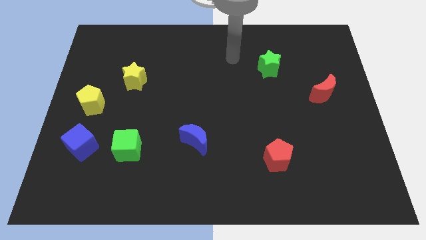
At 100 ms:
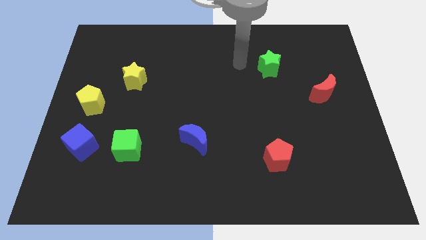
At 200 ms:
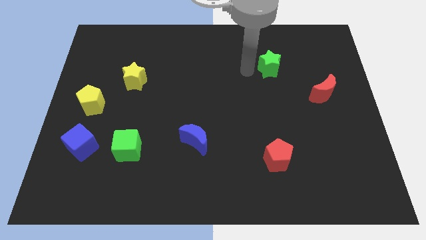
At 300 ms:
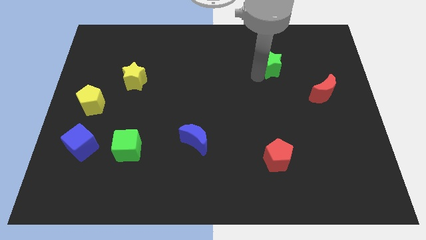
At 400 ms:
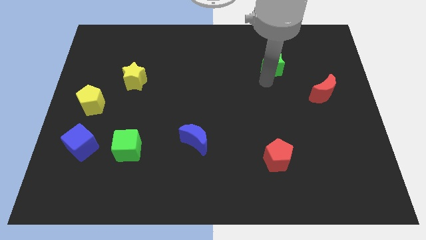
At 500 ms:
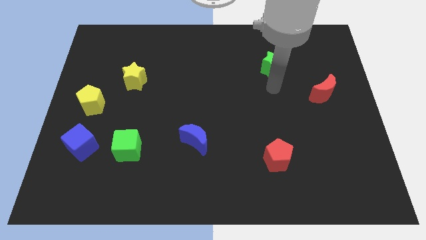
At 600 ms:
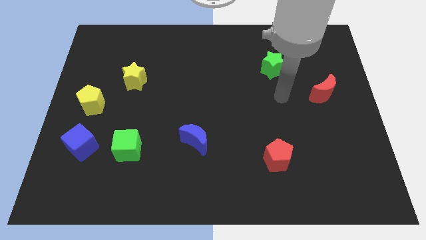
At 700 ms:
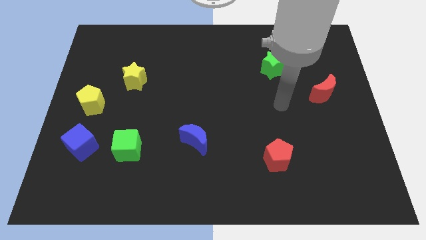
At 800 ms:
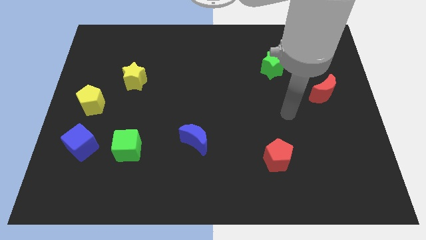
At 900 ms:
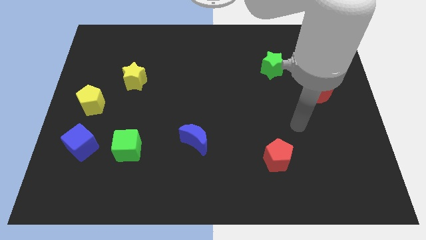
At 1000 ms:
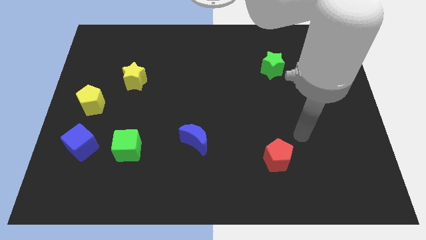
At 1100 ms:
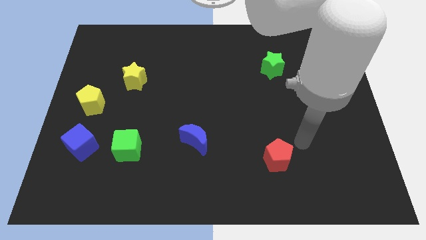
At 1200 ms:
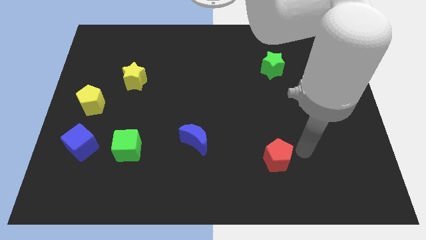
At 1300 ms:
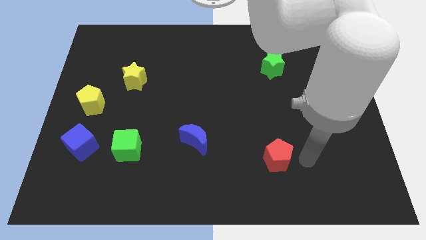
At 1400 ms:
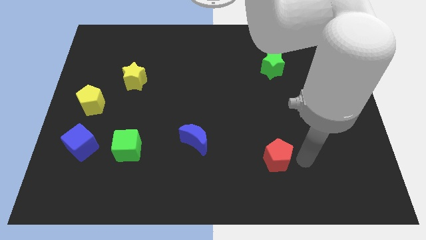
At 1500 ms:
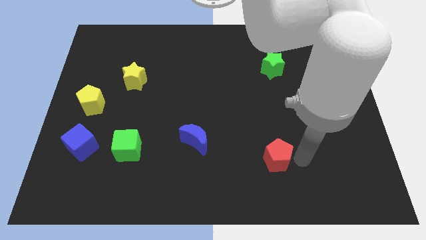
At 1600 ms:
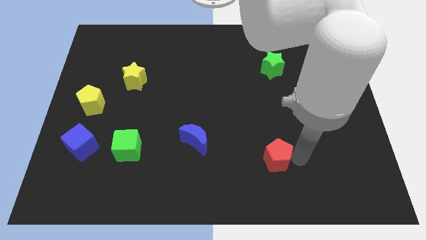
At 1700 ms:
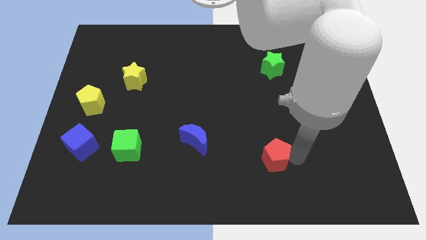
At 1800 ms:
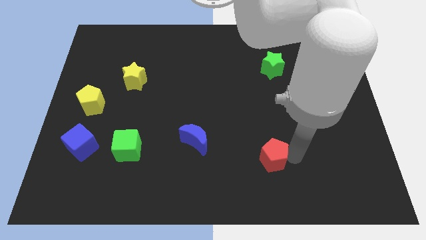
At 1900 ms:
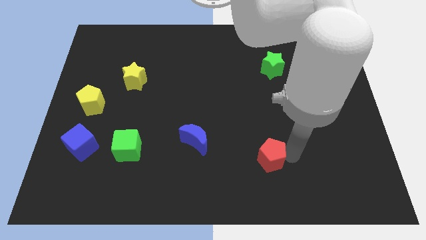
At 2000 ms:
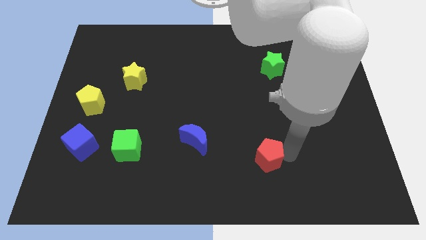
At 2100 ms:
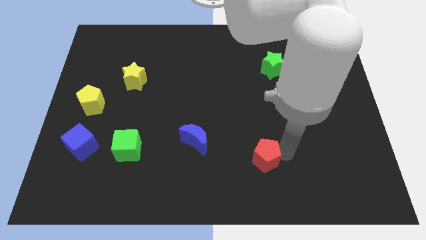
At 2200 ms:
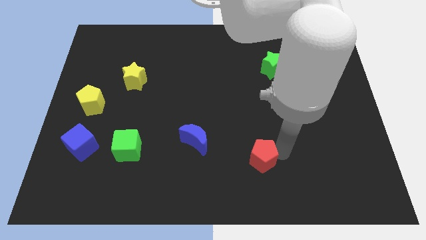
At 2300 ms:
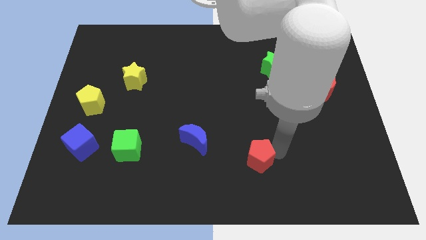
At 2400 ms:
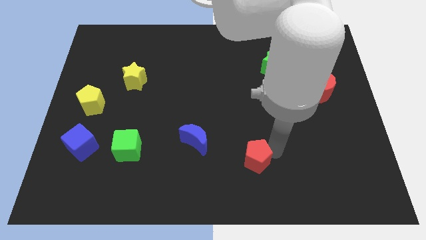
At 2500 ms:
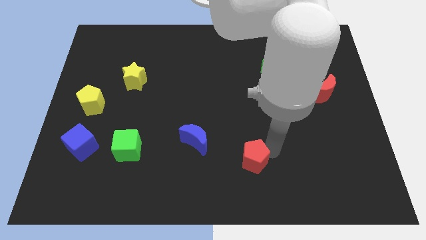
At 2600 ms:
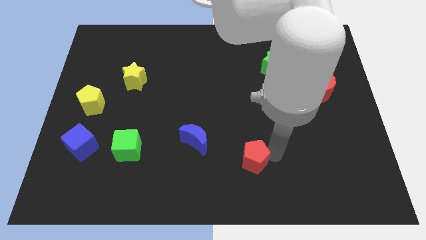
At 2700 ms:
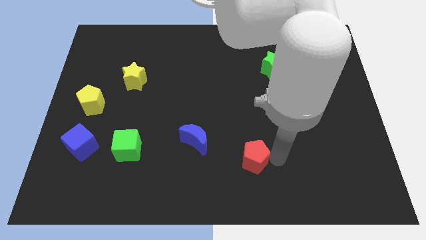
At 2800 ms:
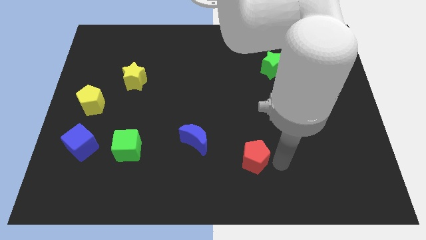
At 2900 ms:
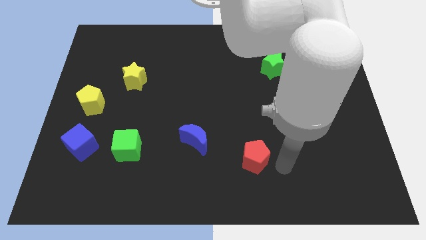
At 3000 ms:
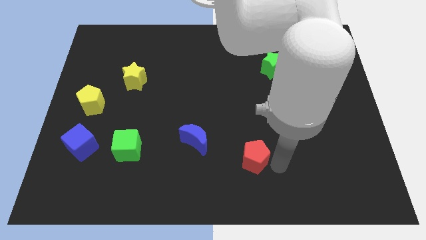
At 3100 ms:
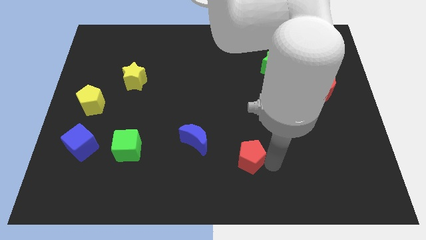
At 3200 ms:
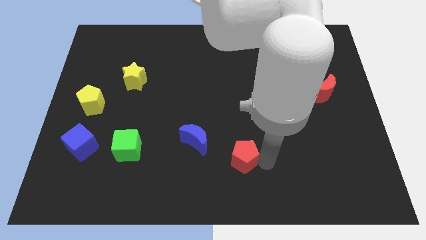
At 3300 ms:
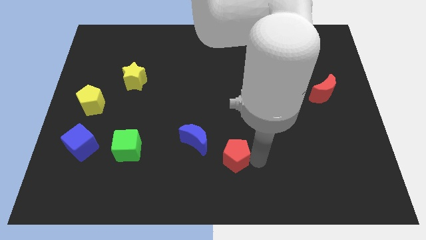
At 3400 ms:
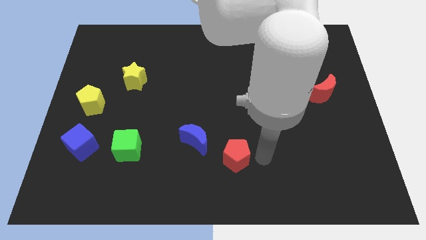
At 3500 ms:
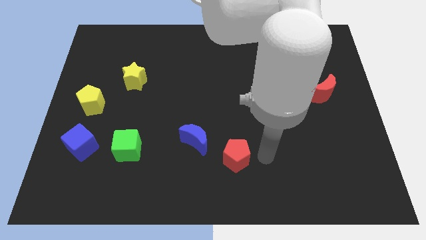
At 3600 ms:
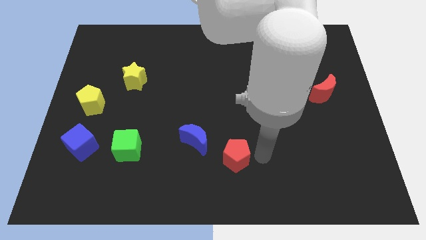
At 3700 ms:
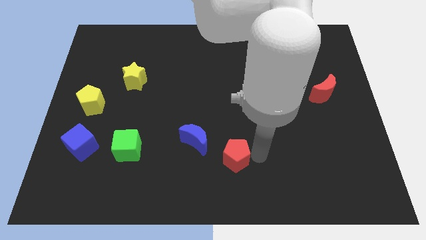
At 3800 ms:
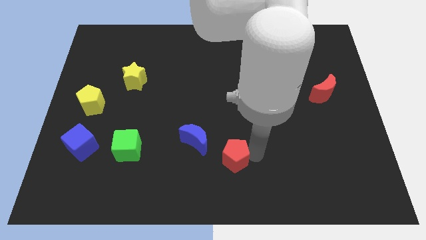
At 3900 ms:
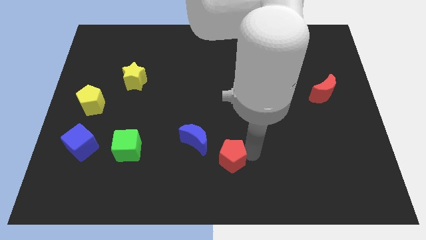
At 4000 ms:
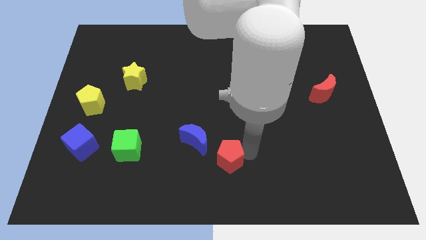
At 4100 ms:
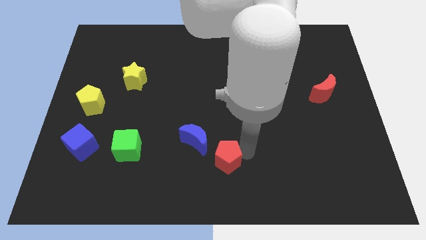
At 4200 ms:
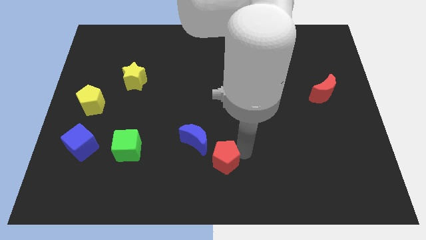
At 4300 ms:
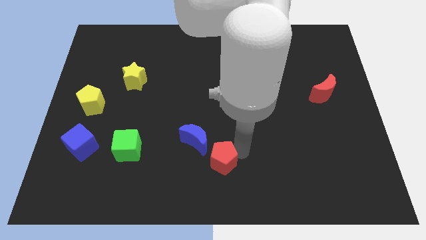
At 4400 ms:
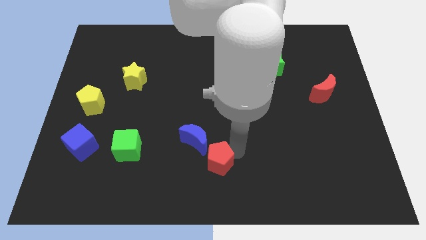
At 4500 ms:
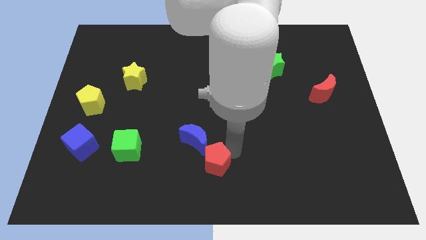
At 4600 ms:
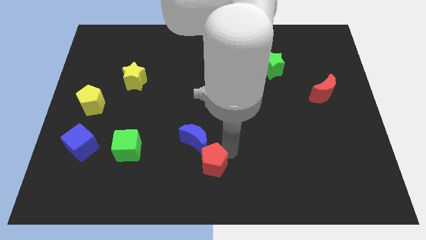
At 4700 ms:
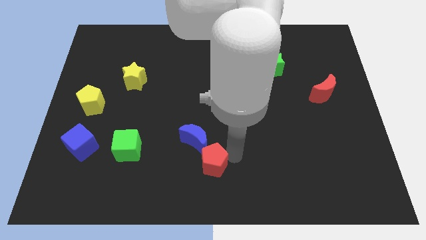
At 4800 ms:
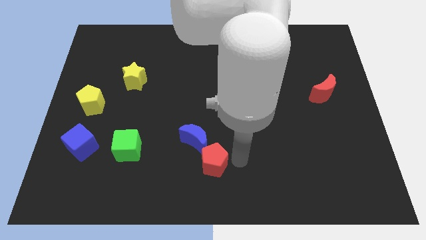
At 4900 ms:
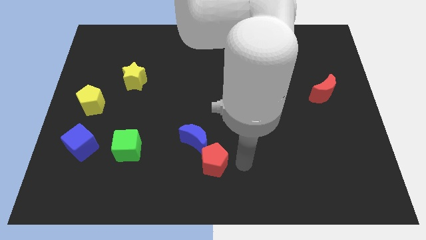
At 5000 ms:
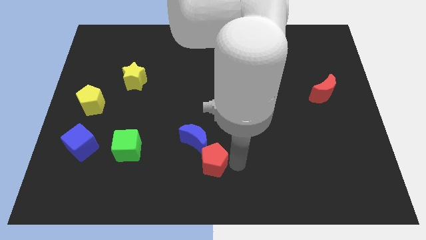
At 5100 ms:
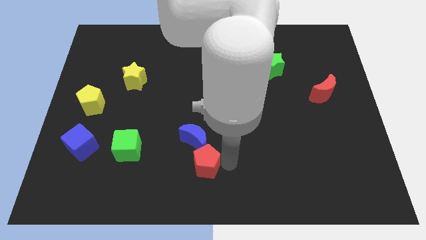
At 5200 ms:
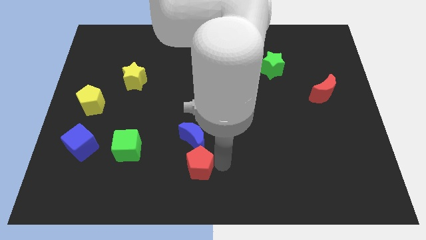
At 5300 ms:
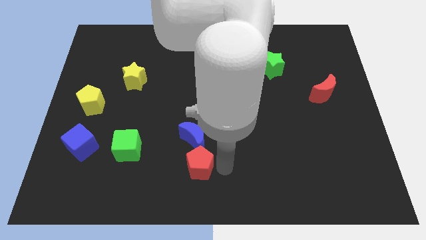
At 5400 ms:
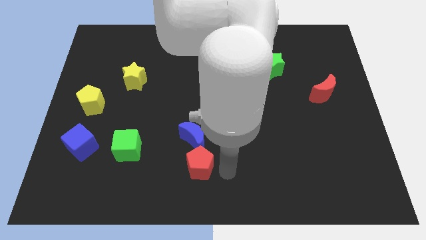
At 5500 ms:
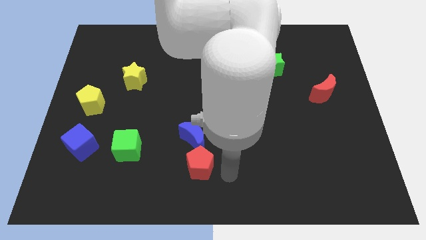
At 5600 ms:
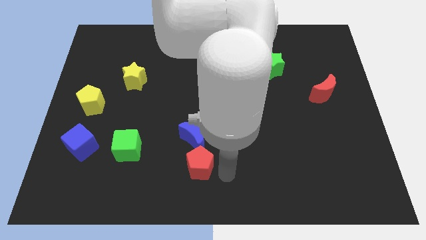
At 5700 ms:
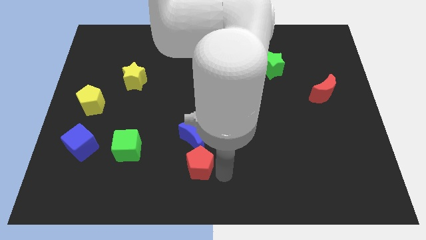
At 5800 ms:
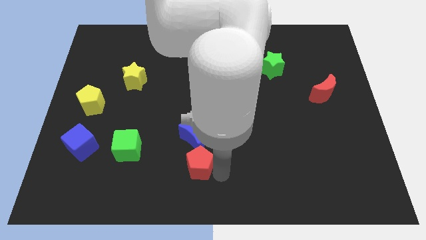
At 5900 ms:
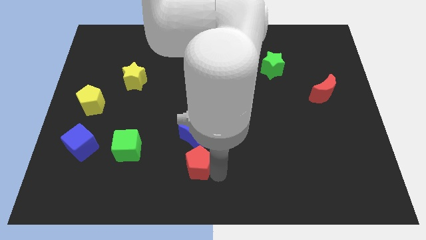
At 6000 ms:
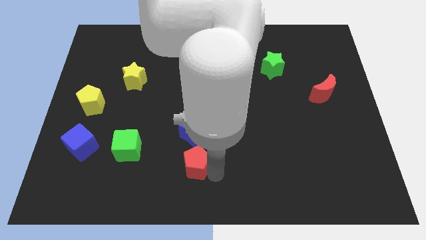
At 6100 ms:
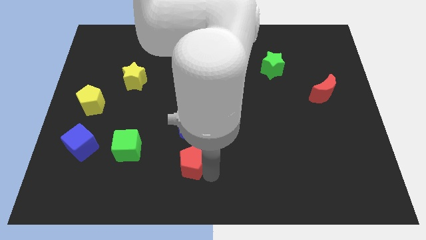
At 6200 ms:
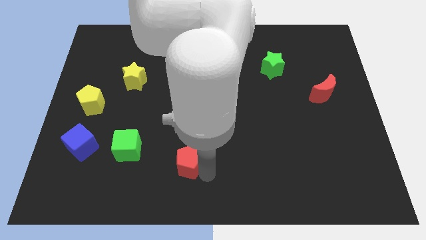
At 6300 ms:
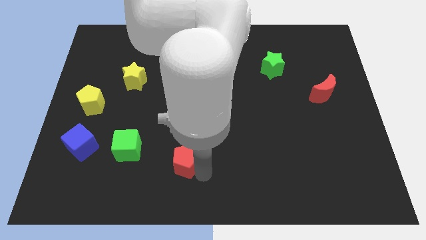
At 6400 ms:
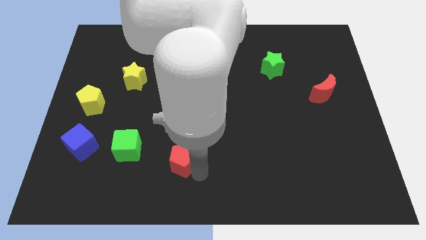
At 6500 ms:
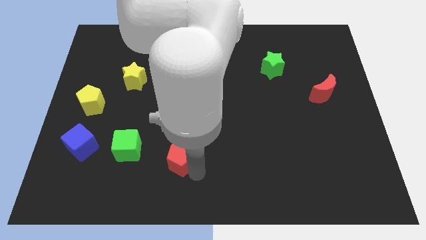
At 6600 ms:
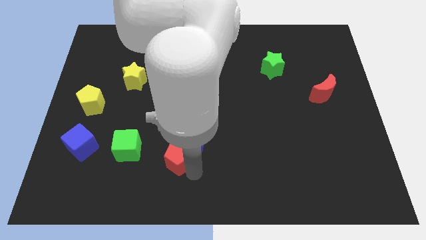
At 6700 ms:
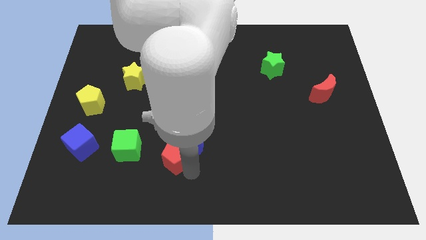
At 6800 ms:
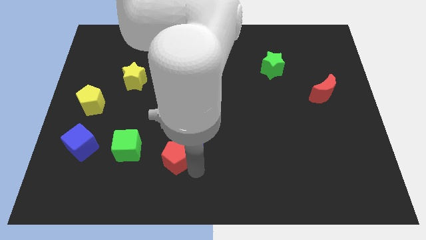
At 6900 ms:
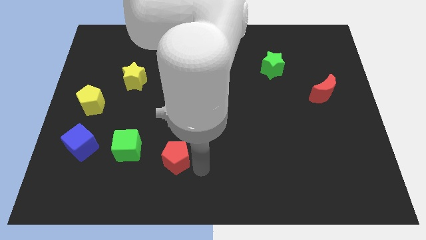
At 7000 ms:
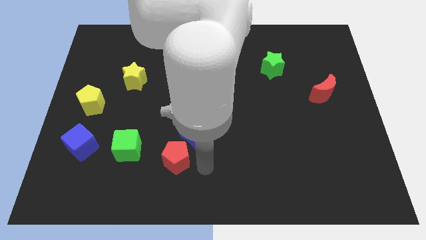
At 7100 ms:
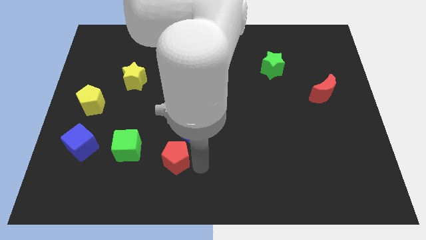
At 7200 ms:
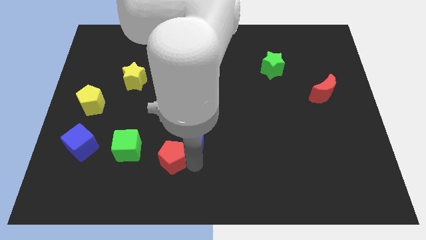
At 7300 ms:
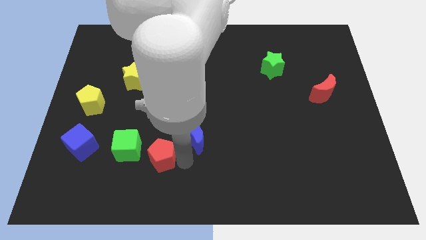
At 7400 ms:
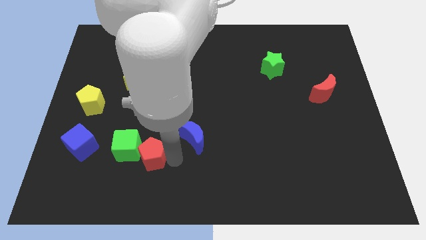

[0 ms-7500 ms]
slide the red pentagon towards the green cube
